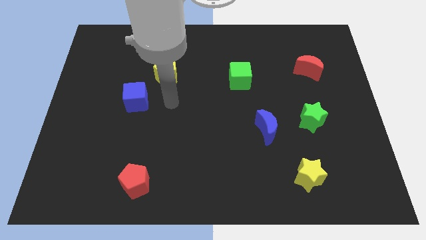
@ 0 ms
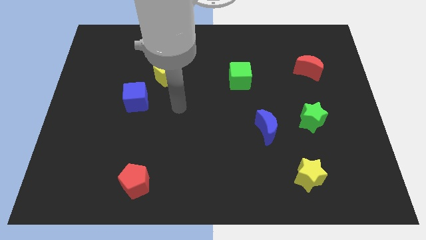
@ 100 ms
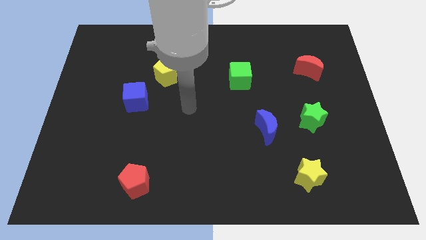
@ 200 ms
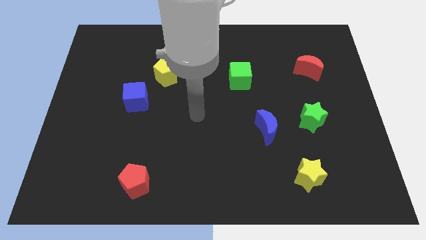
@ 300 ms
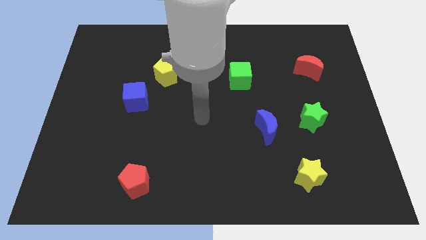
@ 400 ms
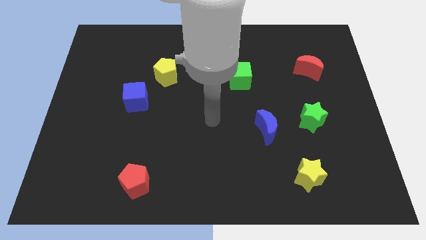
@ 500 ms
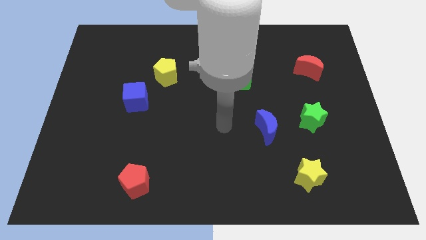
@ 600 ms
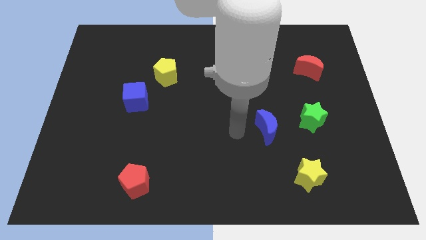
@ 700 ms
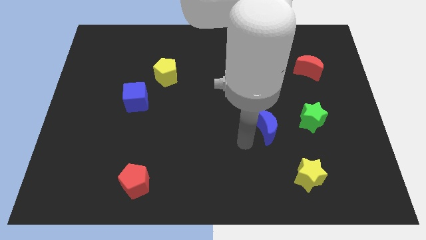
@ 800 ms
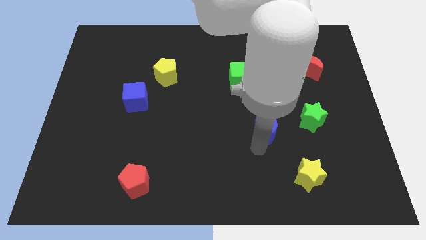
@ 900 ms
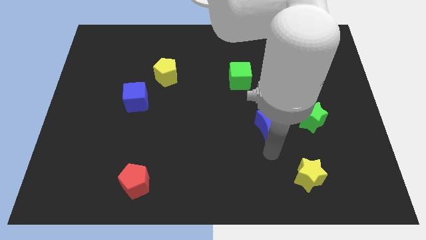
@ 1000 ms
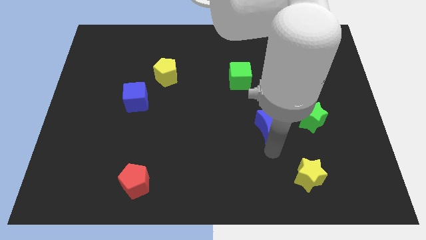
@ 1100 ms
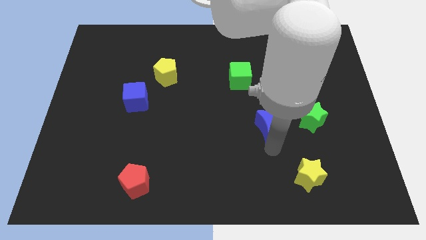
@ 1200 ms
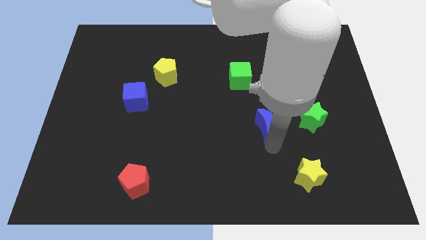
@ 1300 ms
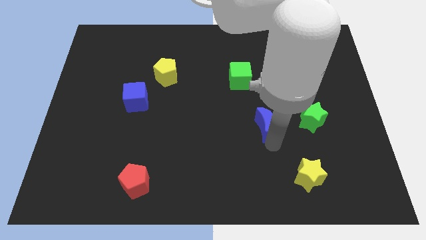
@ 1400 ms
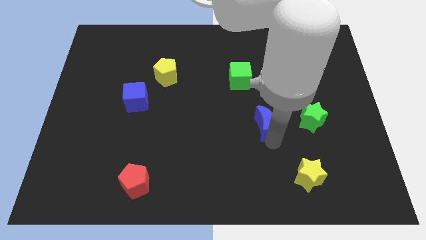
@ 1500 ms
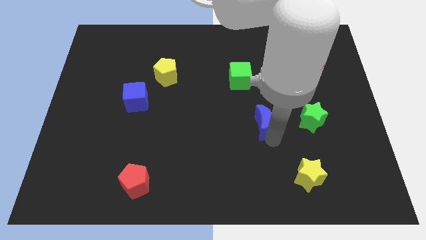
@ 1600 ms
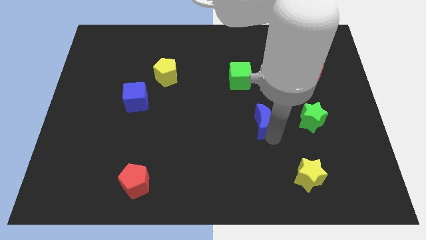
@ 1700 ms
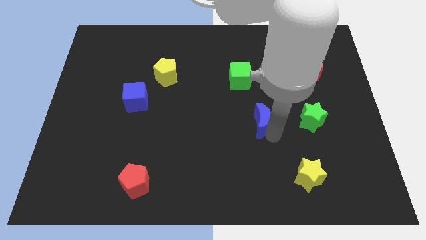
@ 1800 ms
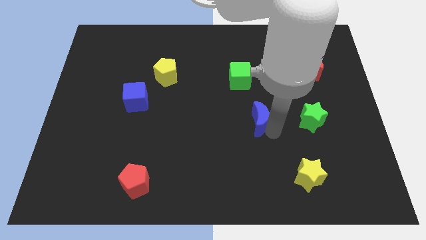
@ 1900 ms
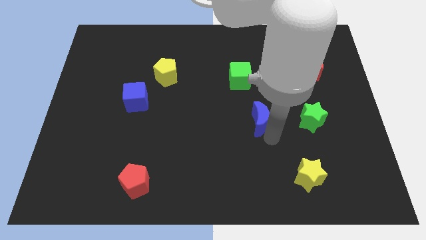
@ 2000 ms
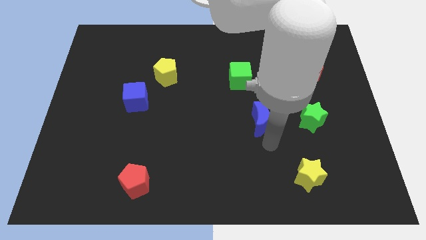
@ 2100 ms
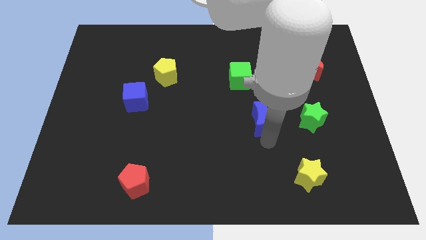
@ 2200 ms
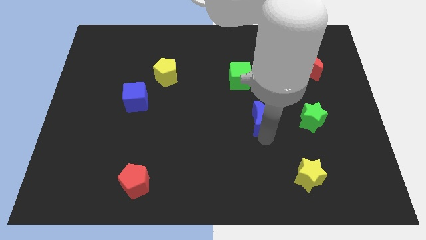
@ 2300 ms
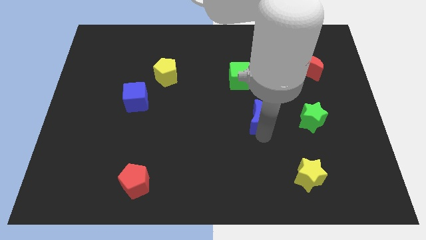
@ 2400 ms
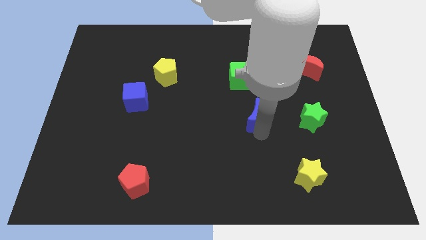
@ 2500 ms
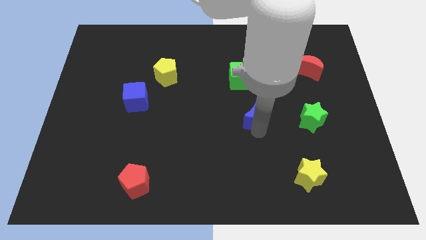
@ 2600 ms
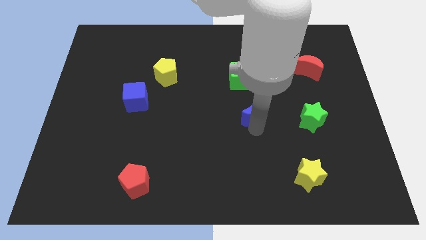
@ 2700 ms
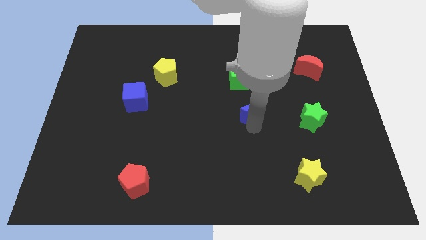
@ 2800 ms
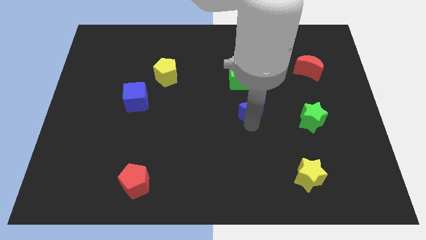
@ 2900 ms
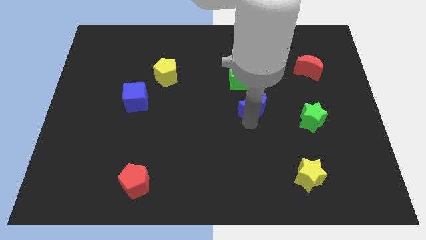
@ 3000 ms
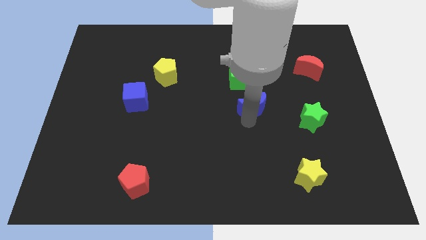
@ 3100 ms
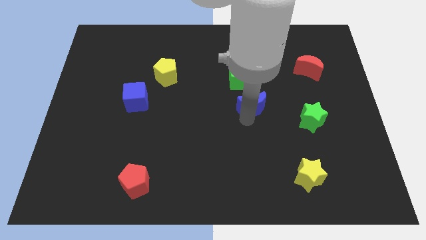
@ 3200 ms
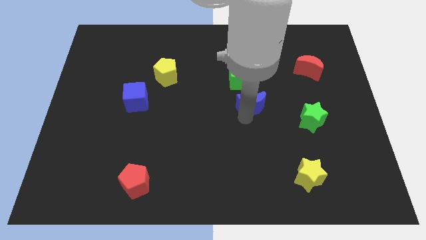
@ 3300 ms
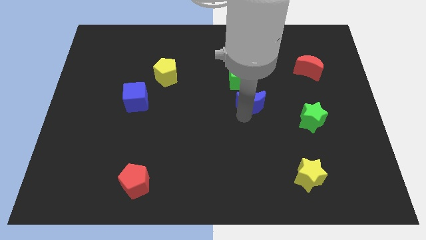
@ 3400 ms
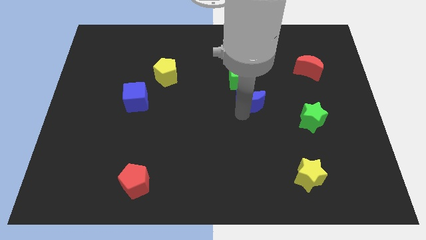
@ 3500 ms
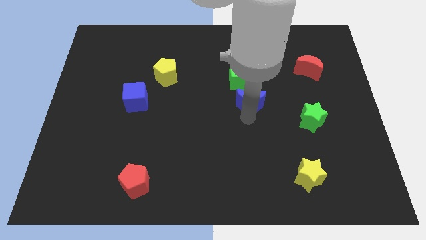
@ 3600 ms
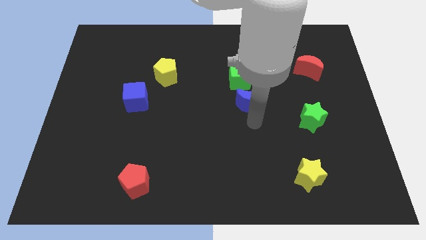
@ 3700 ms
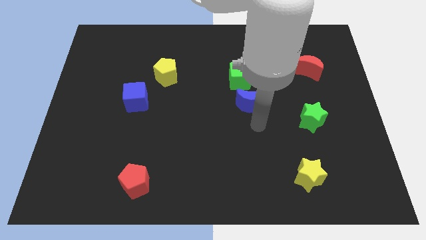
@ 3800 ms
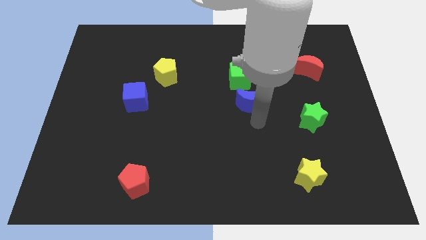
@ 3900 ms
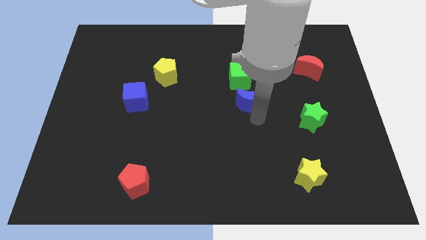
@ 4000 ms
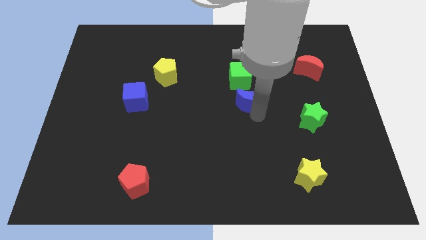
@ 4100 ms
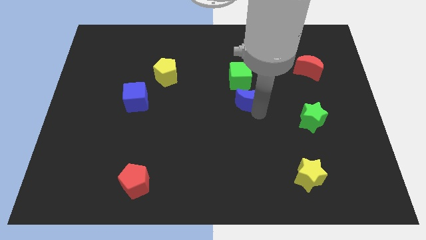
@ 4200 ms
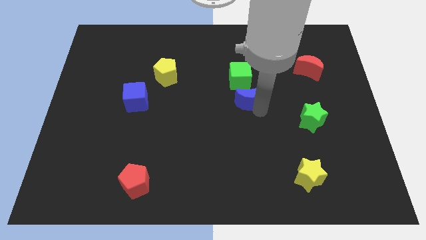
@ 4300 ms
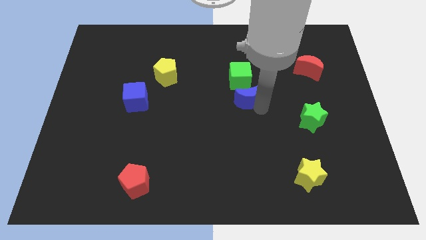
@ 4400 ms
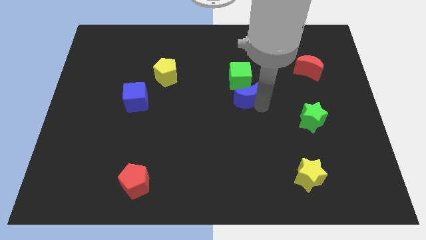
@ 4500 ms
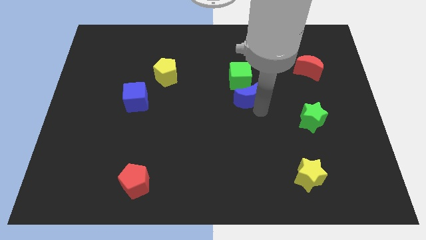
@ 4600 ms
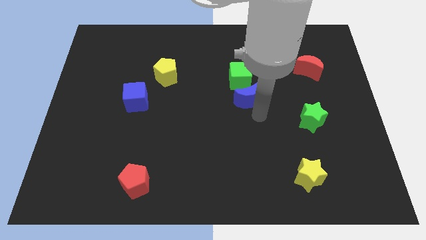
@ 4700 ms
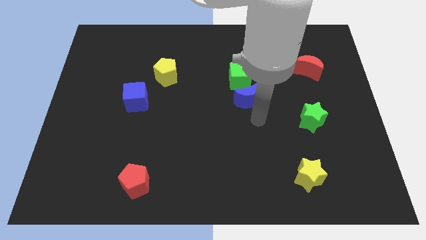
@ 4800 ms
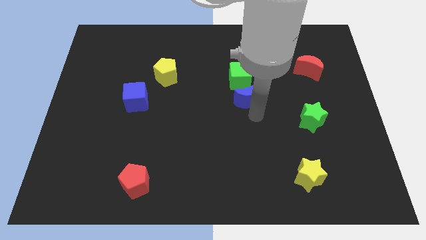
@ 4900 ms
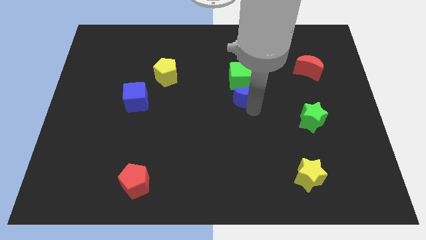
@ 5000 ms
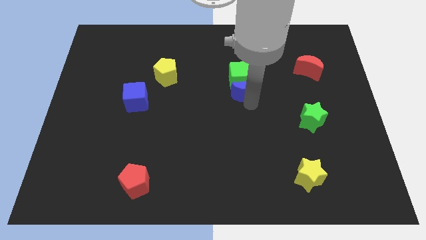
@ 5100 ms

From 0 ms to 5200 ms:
push the blue moon next to the green cube

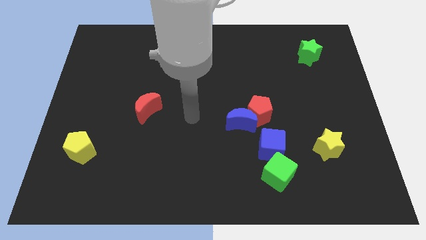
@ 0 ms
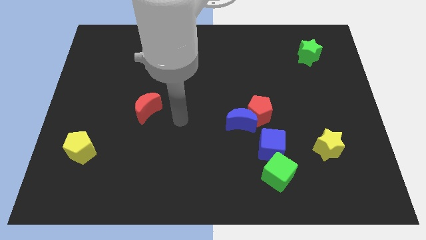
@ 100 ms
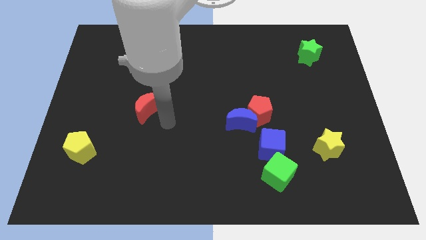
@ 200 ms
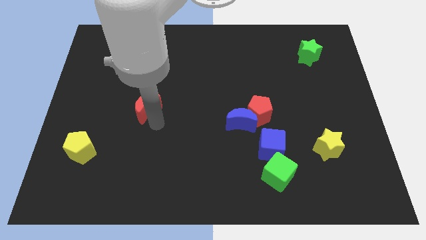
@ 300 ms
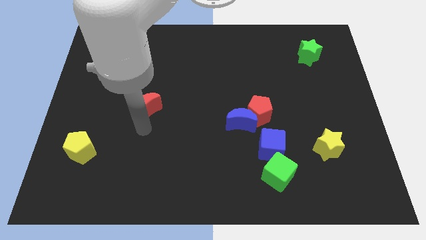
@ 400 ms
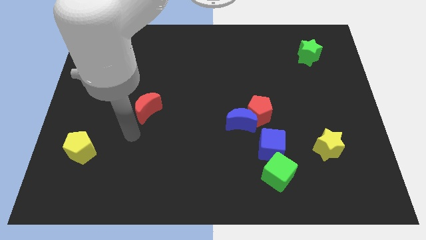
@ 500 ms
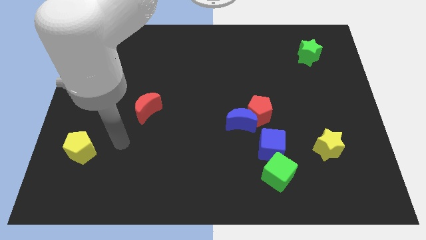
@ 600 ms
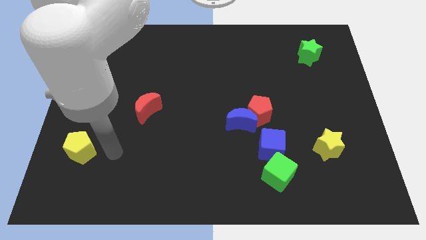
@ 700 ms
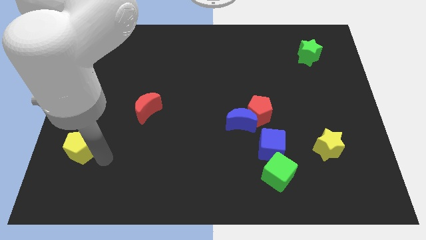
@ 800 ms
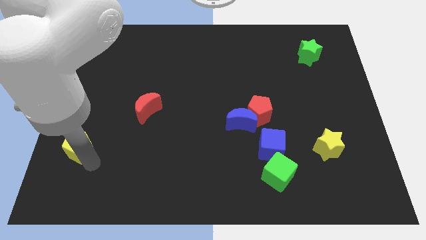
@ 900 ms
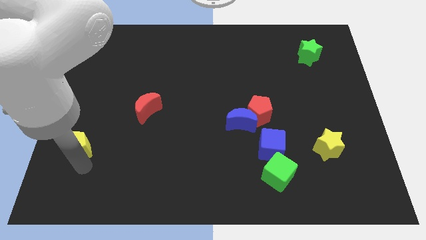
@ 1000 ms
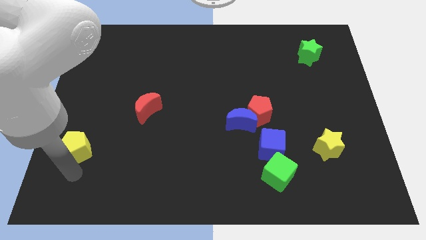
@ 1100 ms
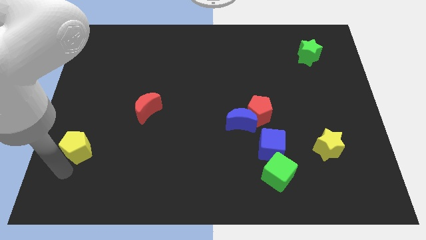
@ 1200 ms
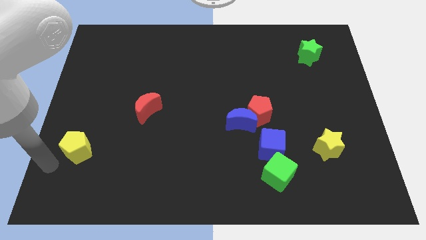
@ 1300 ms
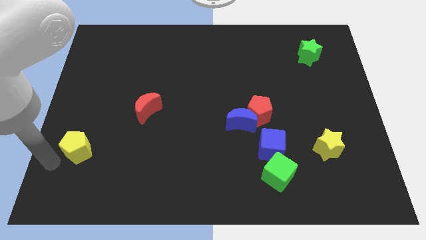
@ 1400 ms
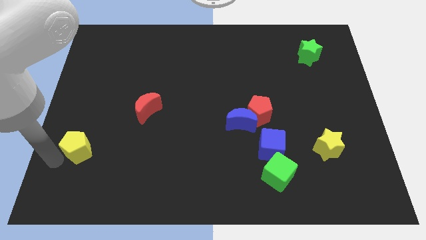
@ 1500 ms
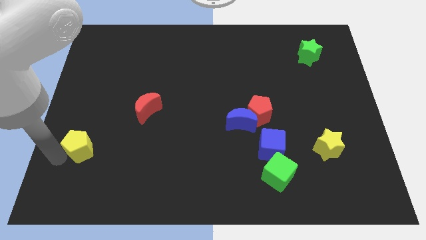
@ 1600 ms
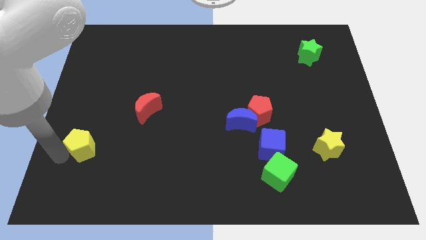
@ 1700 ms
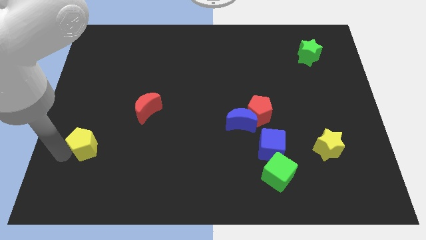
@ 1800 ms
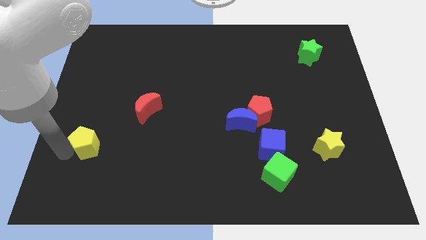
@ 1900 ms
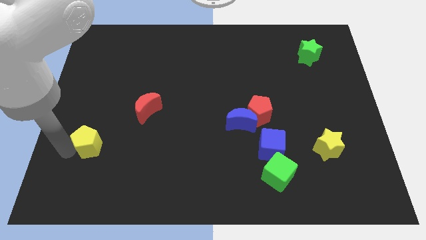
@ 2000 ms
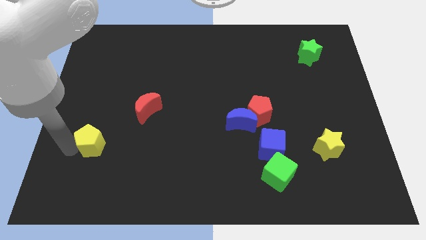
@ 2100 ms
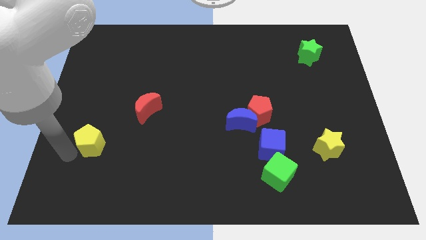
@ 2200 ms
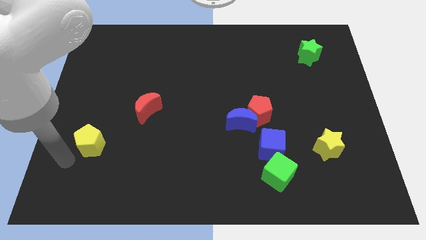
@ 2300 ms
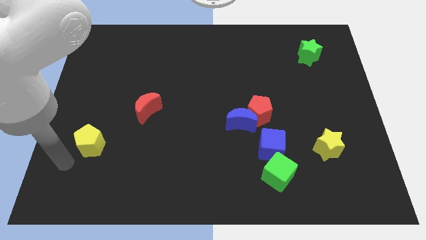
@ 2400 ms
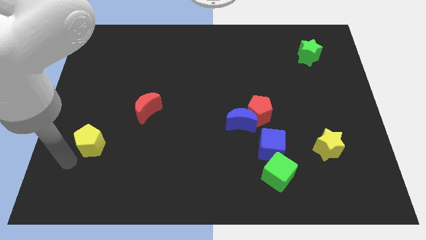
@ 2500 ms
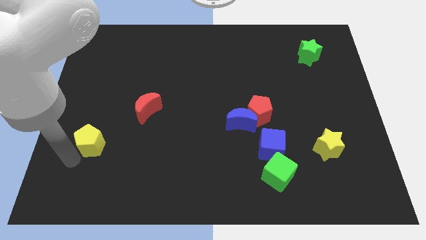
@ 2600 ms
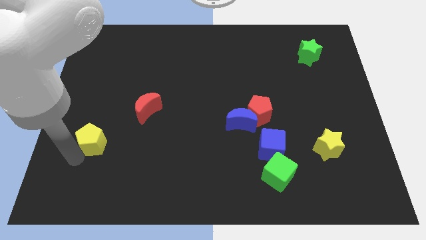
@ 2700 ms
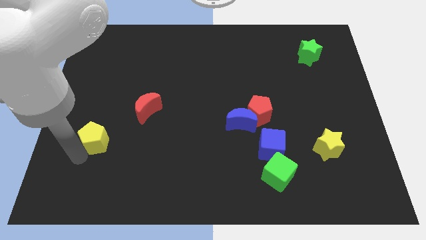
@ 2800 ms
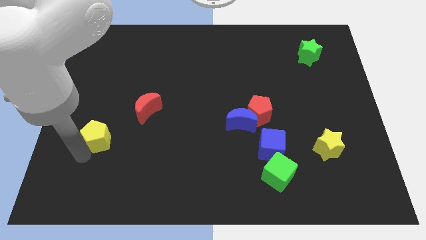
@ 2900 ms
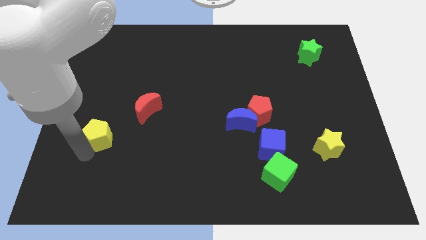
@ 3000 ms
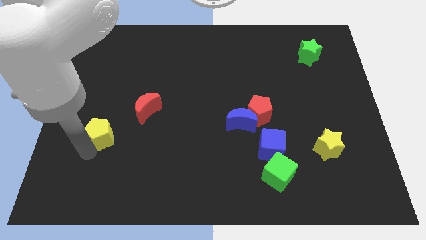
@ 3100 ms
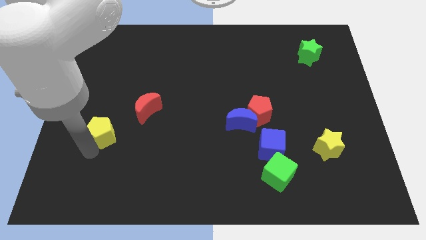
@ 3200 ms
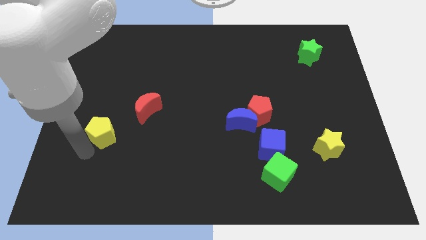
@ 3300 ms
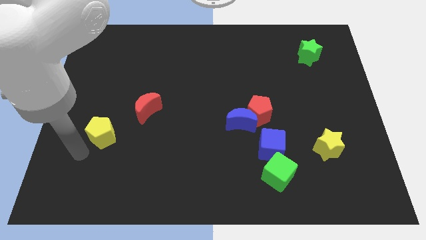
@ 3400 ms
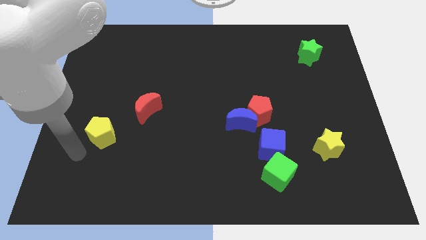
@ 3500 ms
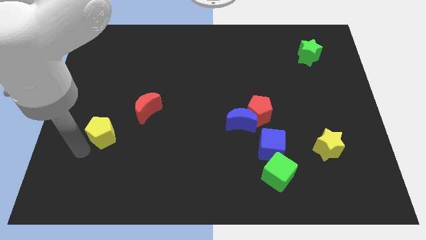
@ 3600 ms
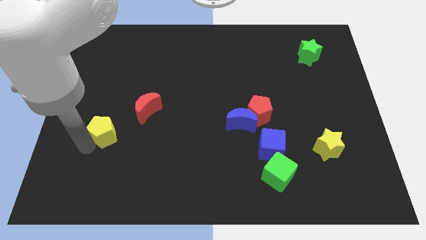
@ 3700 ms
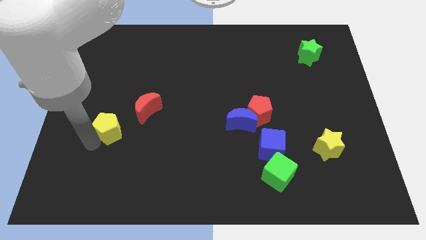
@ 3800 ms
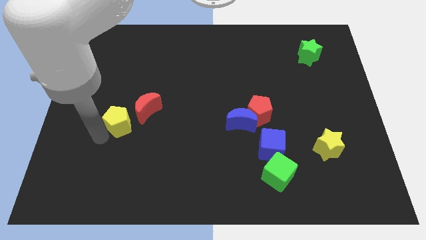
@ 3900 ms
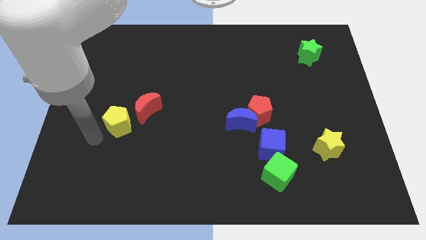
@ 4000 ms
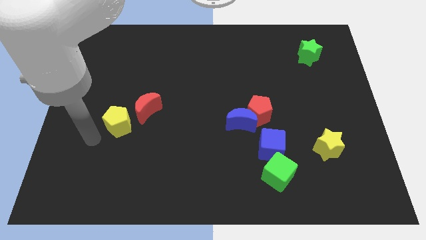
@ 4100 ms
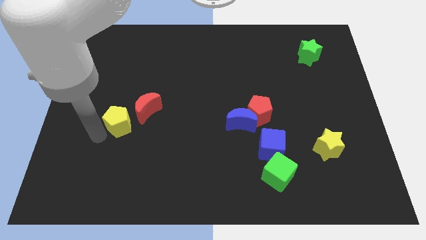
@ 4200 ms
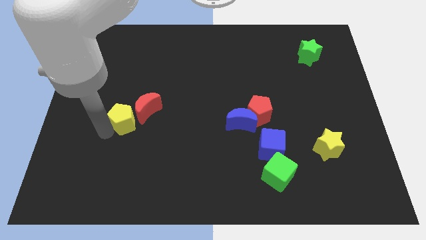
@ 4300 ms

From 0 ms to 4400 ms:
put the yellow pentagon to the red moon
